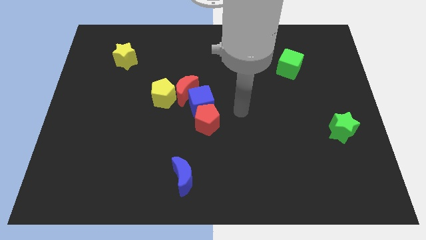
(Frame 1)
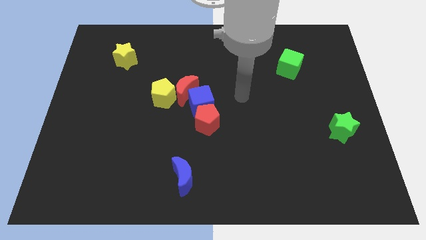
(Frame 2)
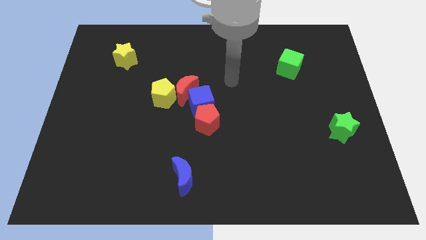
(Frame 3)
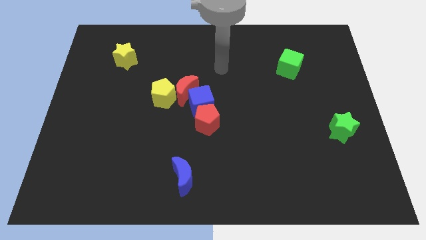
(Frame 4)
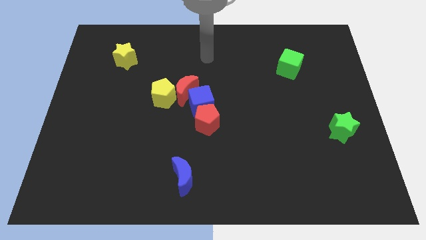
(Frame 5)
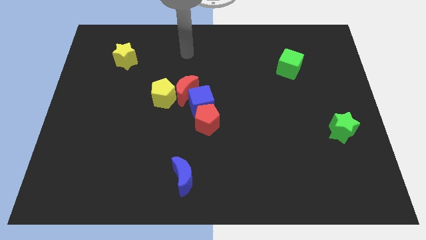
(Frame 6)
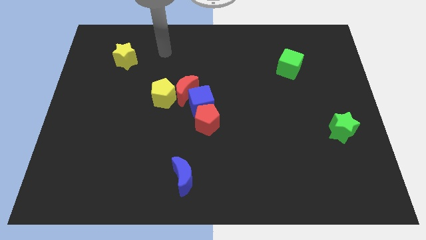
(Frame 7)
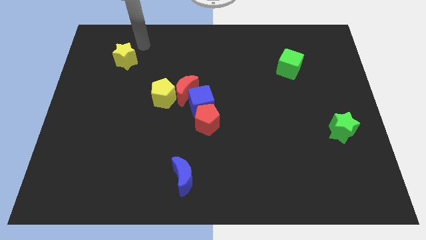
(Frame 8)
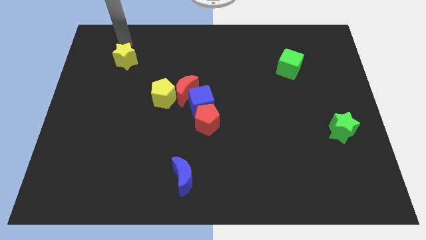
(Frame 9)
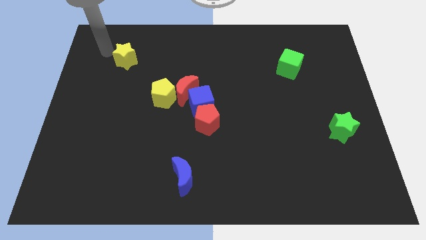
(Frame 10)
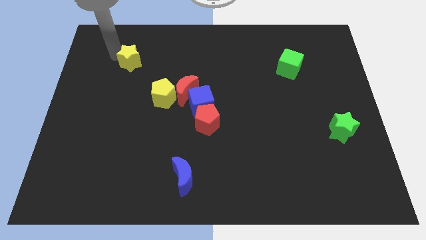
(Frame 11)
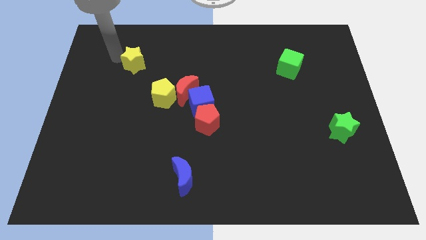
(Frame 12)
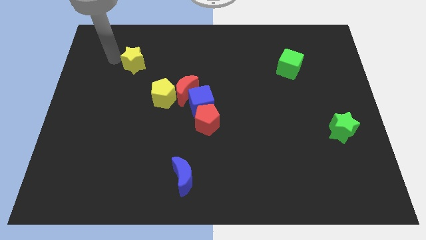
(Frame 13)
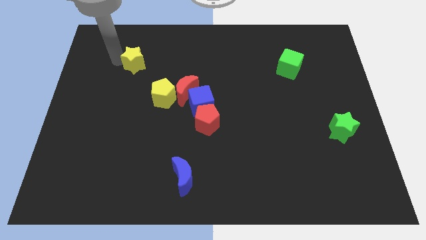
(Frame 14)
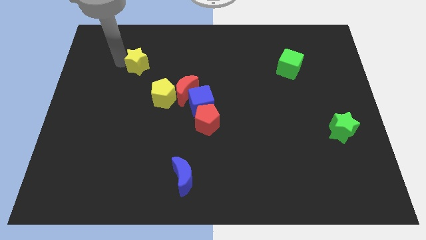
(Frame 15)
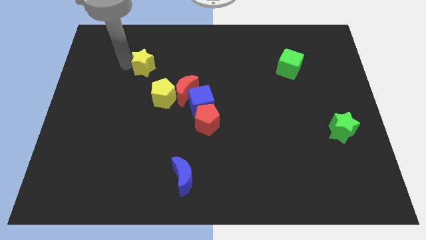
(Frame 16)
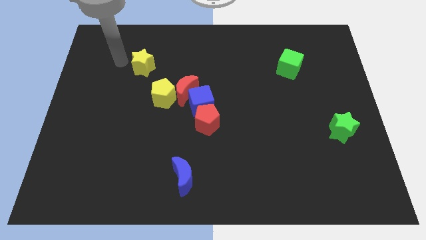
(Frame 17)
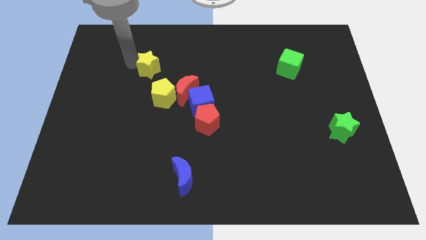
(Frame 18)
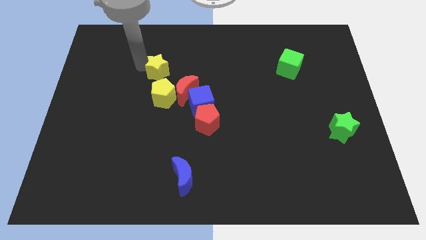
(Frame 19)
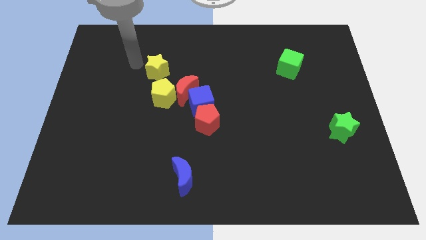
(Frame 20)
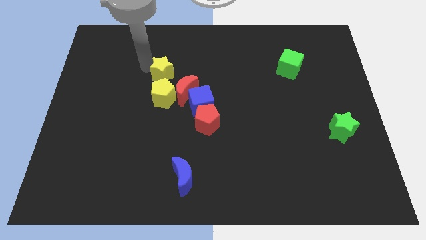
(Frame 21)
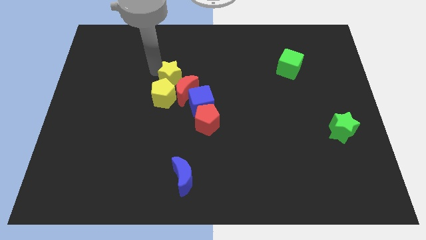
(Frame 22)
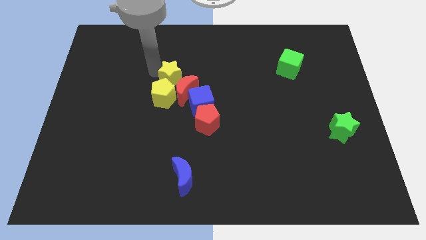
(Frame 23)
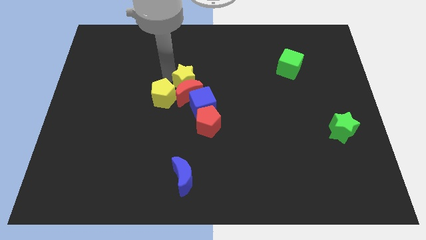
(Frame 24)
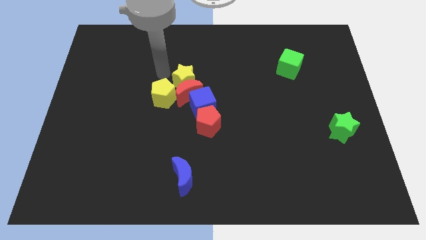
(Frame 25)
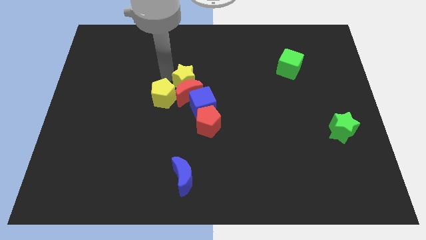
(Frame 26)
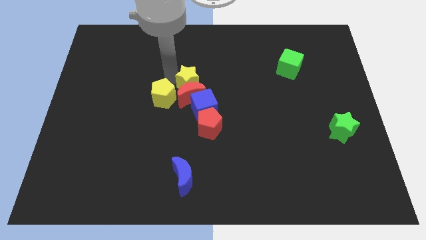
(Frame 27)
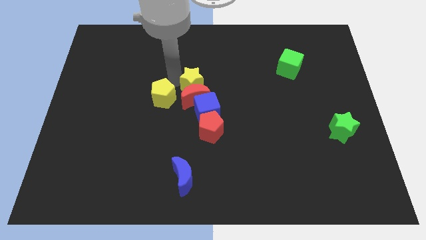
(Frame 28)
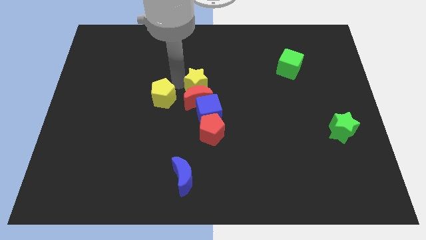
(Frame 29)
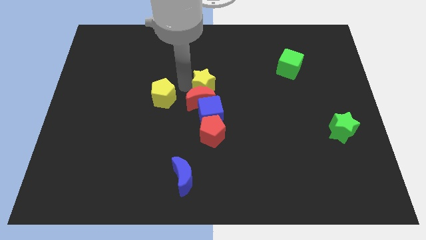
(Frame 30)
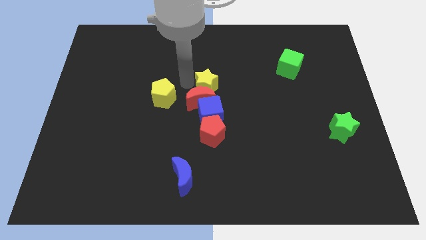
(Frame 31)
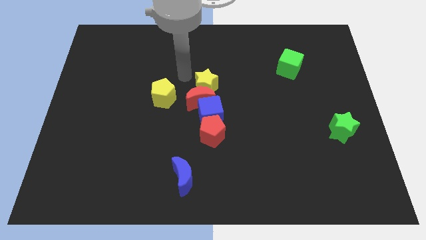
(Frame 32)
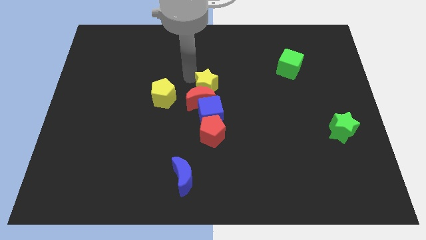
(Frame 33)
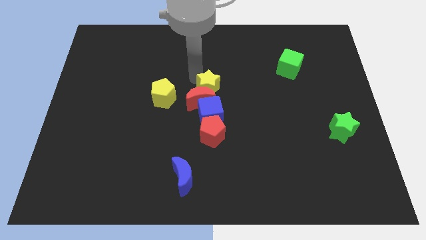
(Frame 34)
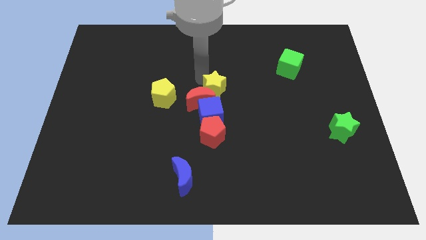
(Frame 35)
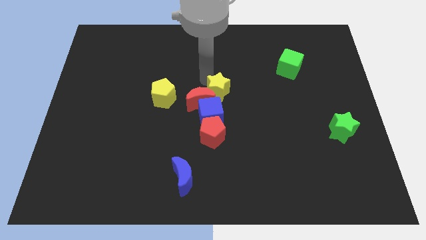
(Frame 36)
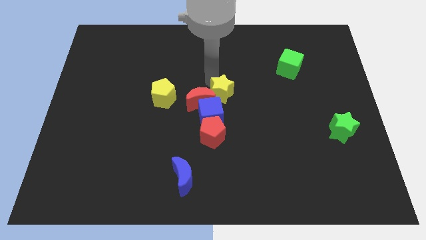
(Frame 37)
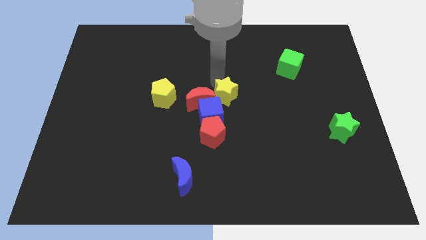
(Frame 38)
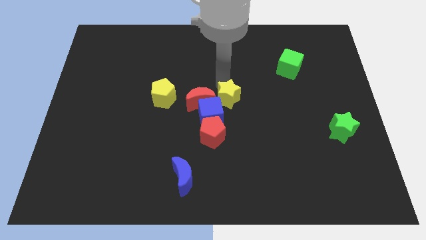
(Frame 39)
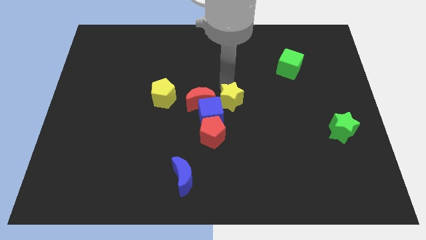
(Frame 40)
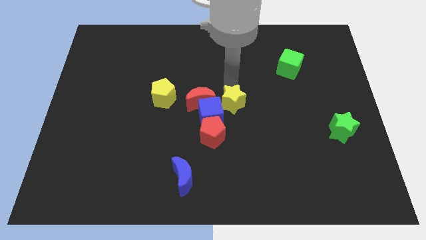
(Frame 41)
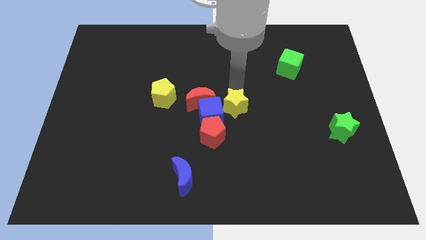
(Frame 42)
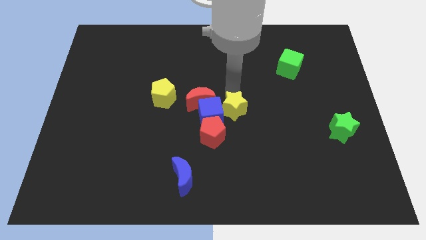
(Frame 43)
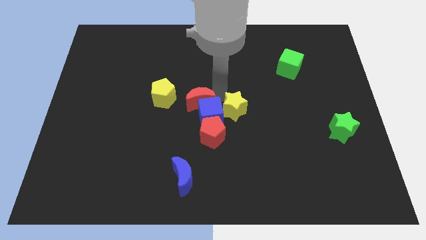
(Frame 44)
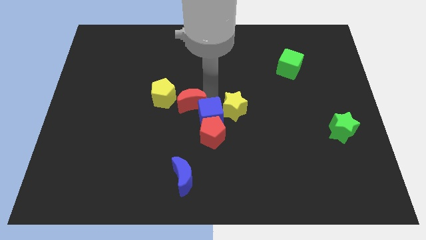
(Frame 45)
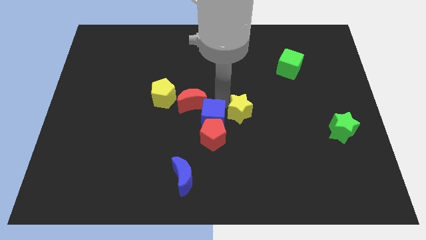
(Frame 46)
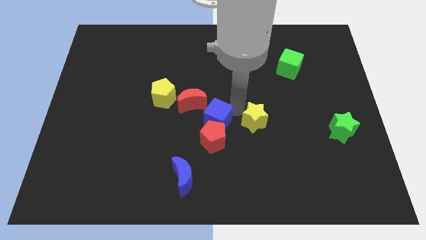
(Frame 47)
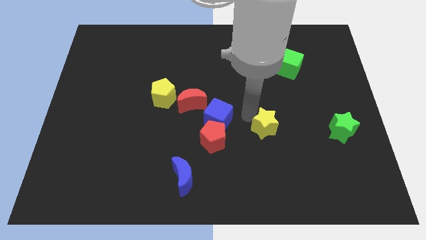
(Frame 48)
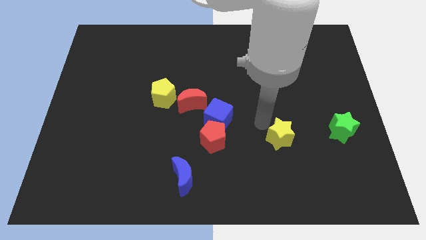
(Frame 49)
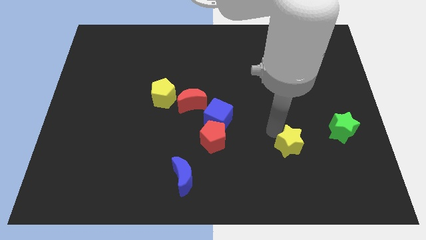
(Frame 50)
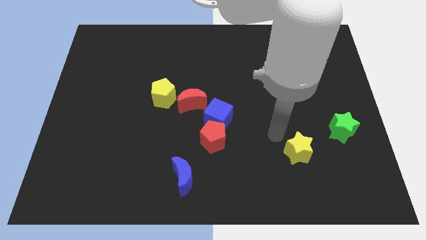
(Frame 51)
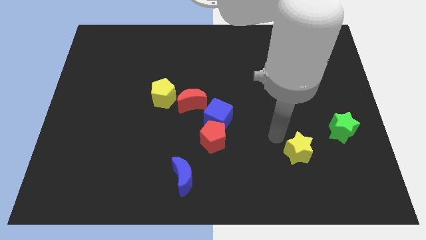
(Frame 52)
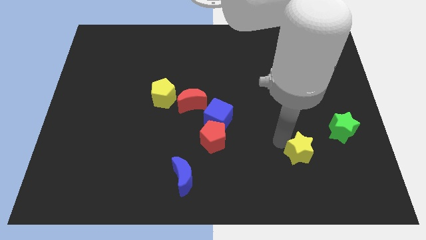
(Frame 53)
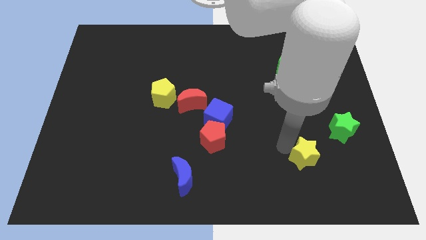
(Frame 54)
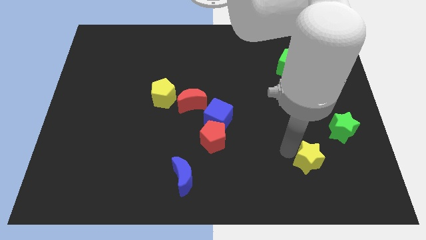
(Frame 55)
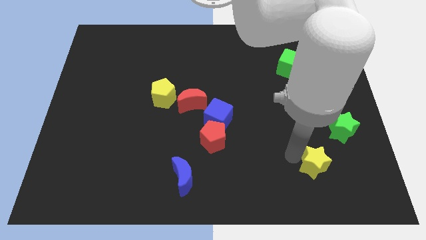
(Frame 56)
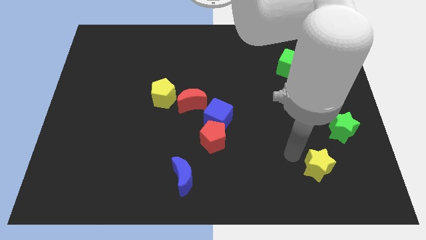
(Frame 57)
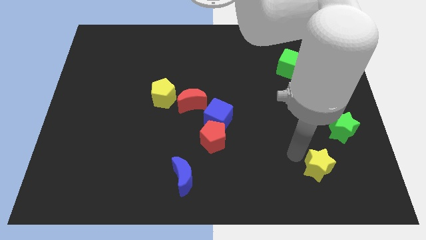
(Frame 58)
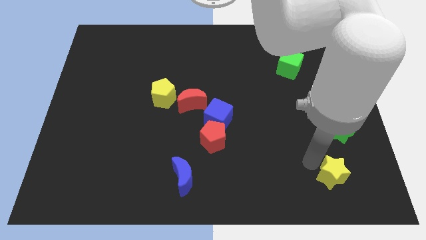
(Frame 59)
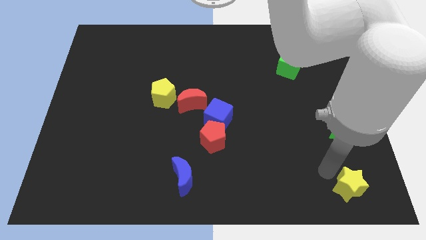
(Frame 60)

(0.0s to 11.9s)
put the yellow star to the bottom right of the board
